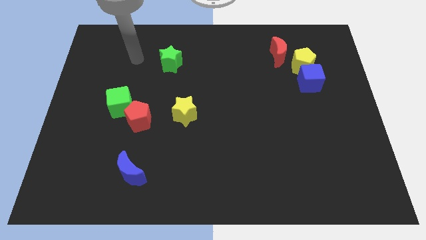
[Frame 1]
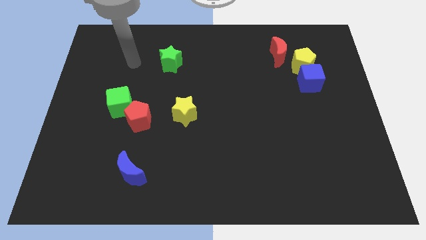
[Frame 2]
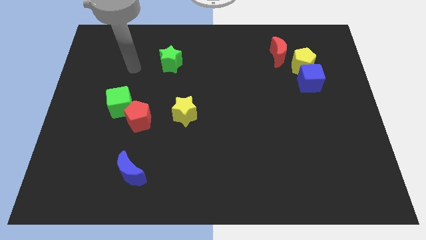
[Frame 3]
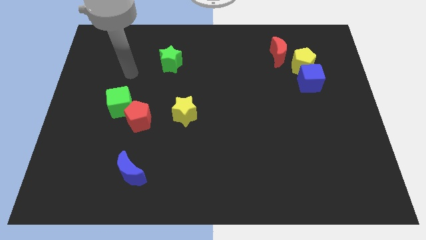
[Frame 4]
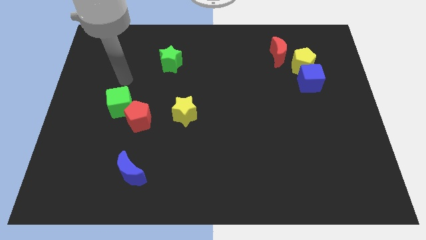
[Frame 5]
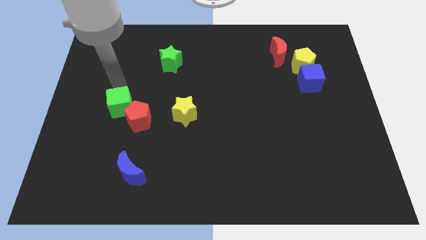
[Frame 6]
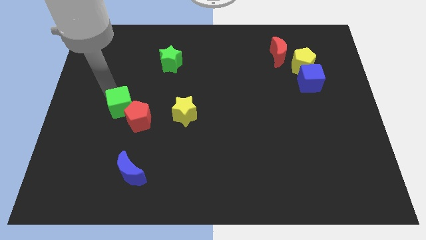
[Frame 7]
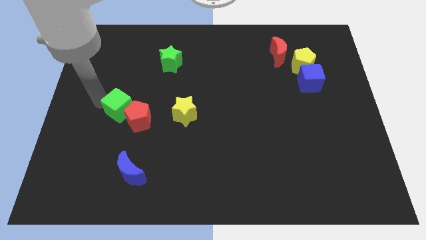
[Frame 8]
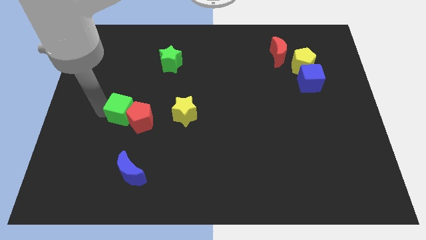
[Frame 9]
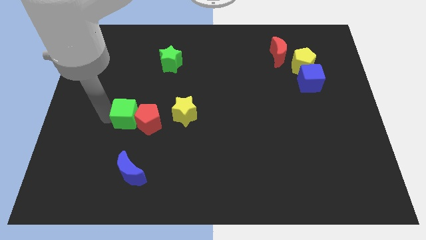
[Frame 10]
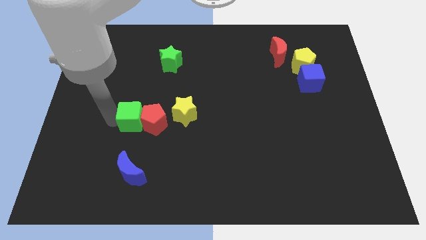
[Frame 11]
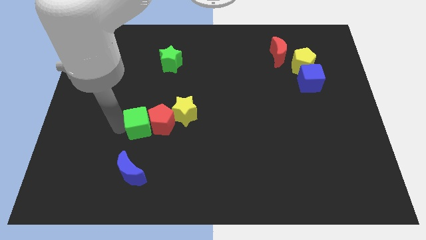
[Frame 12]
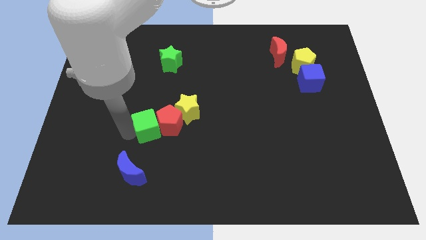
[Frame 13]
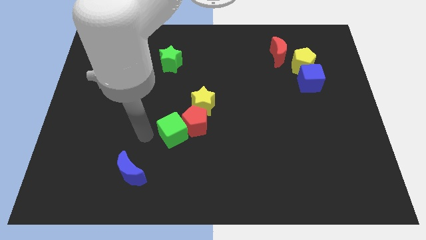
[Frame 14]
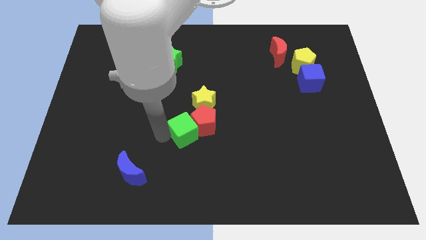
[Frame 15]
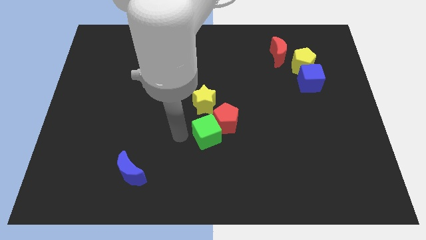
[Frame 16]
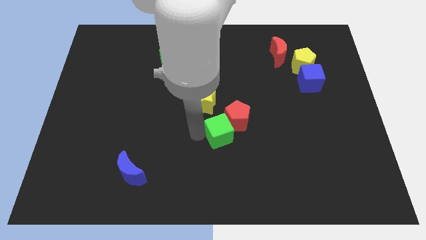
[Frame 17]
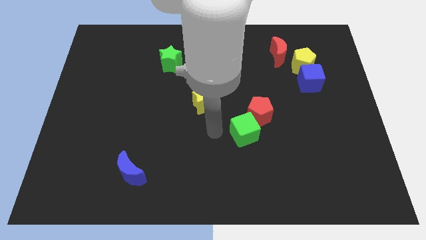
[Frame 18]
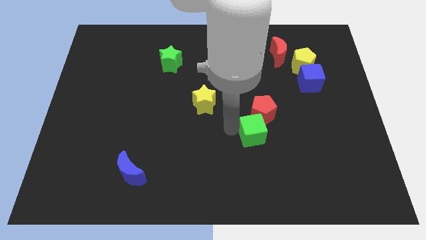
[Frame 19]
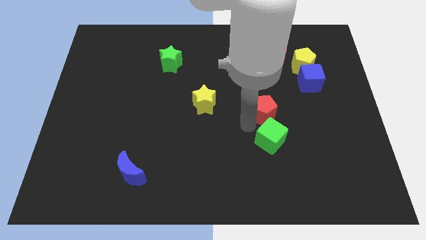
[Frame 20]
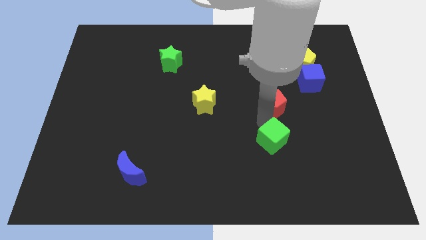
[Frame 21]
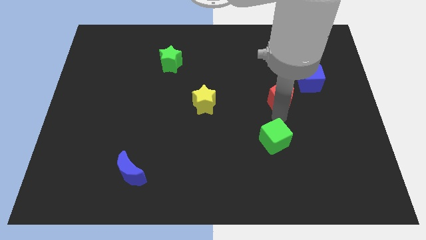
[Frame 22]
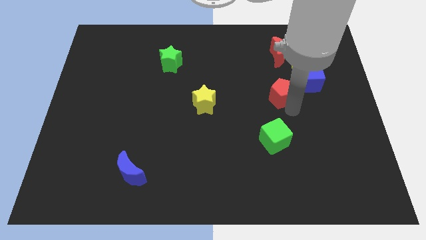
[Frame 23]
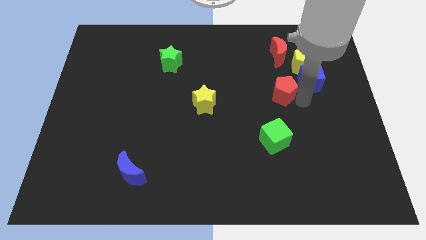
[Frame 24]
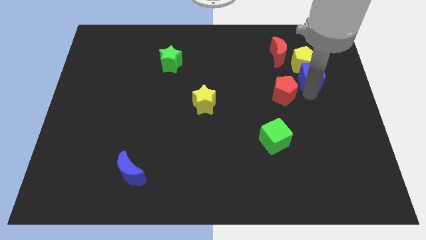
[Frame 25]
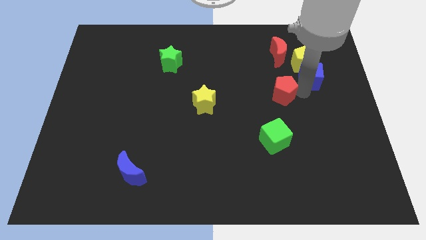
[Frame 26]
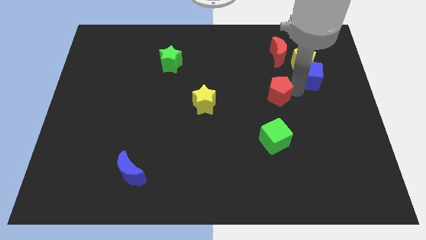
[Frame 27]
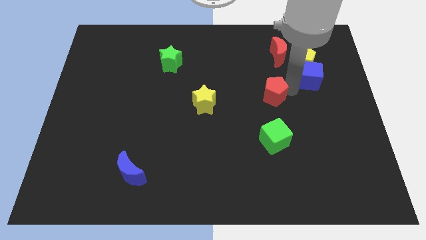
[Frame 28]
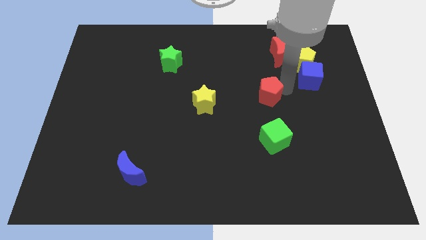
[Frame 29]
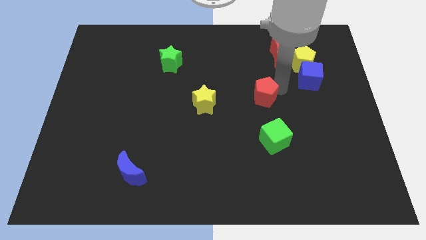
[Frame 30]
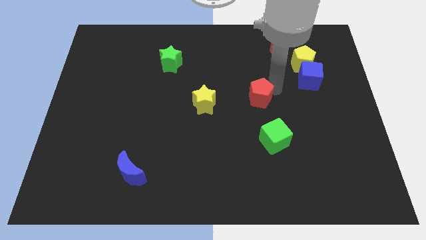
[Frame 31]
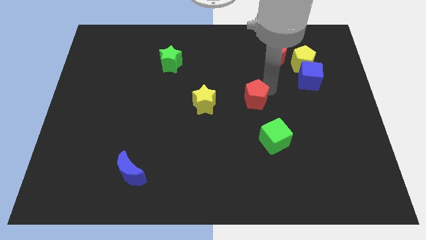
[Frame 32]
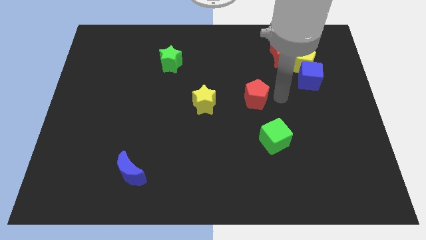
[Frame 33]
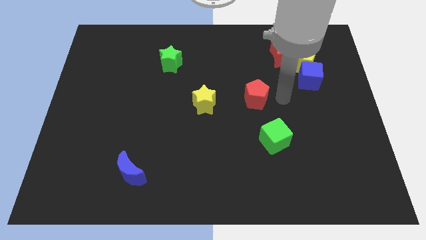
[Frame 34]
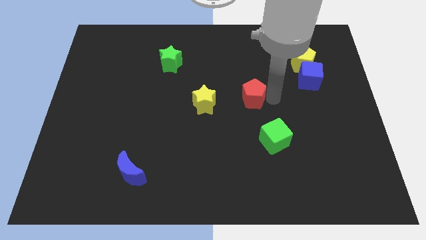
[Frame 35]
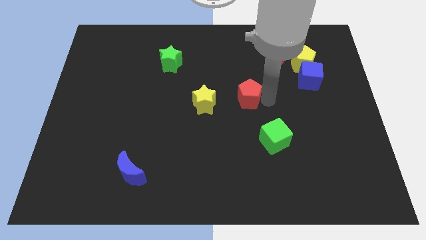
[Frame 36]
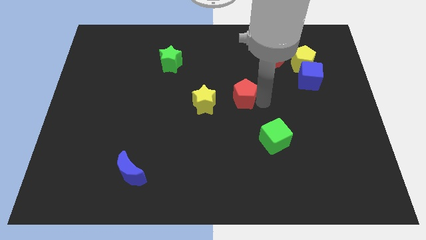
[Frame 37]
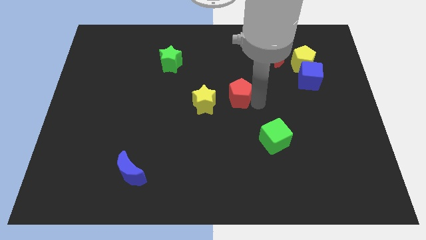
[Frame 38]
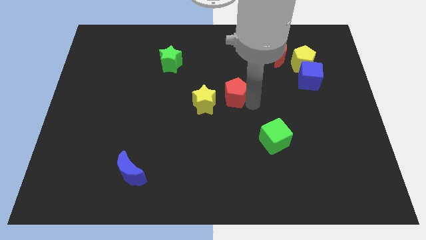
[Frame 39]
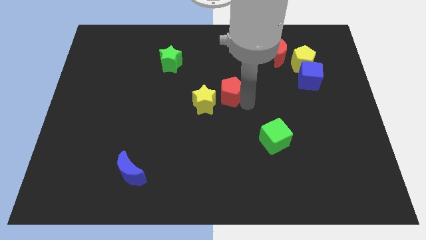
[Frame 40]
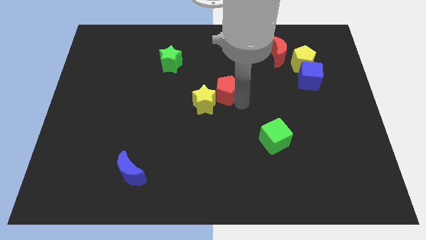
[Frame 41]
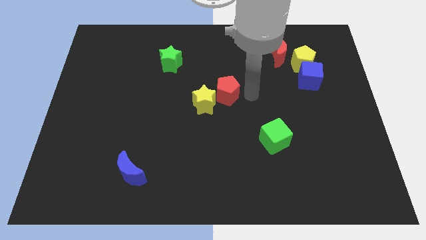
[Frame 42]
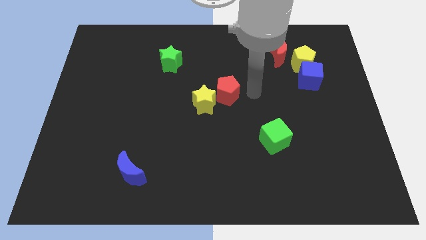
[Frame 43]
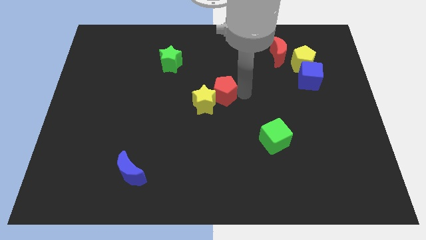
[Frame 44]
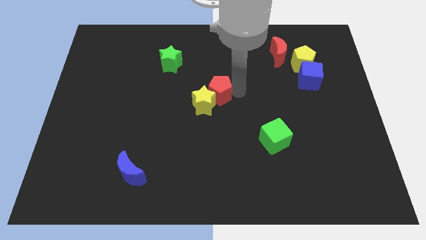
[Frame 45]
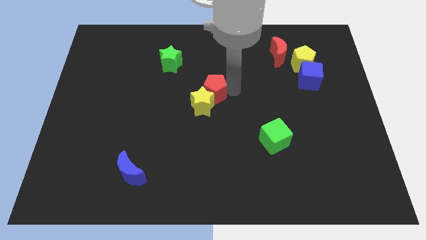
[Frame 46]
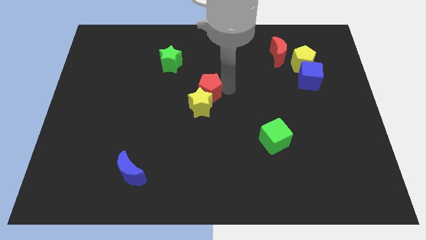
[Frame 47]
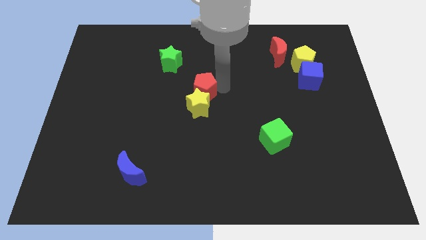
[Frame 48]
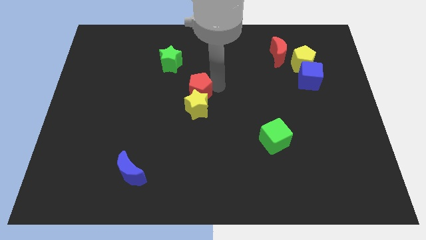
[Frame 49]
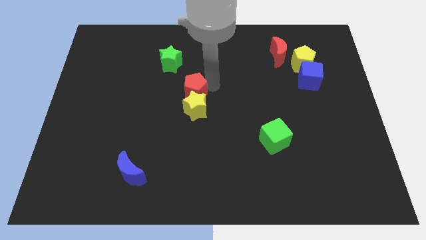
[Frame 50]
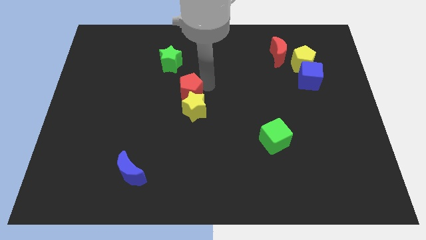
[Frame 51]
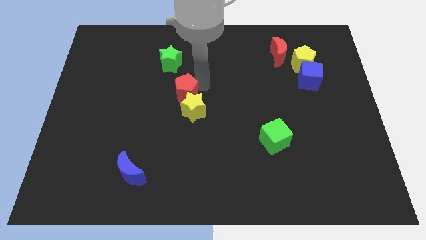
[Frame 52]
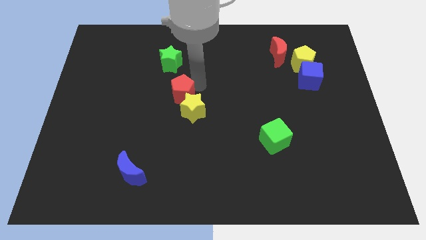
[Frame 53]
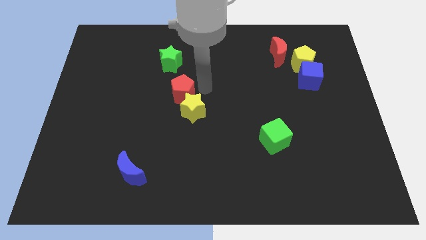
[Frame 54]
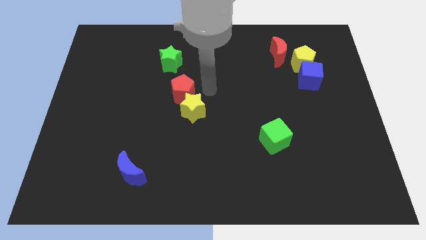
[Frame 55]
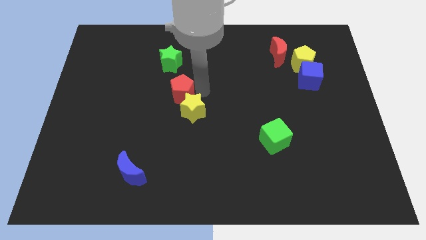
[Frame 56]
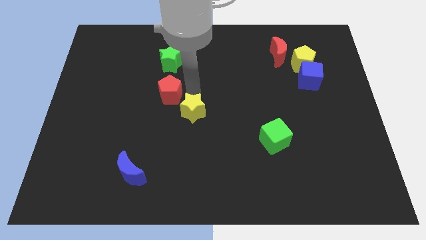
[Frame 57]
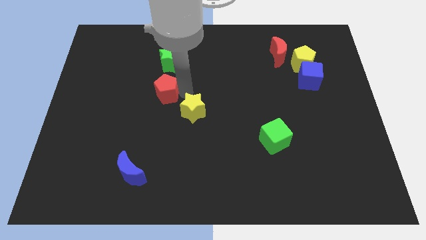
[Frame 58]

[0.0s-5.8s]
push the red pentagon upwards a little bit

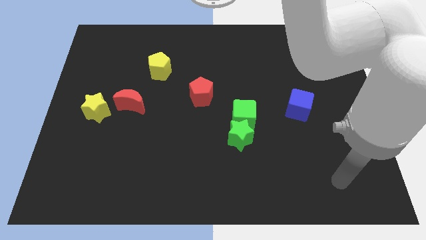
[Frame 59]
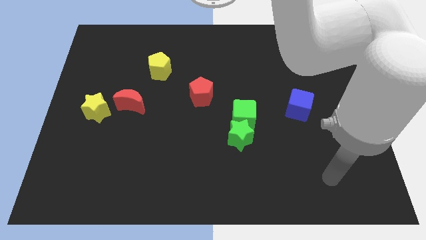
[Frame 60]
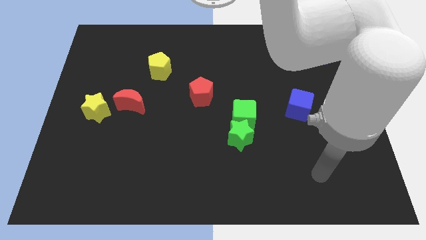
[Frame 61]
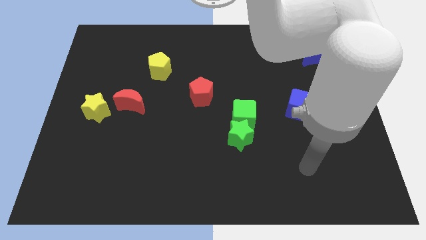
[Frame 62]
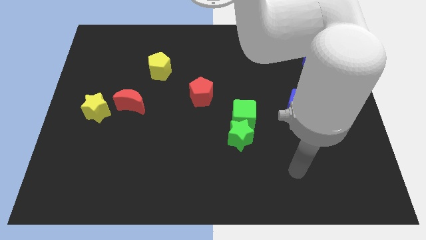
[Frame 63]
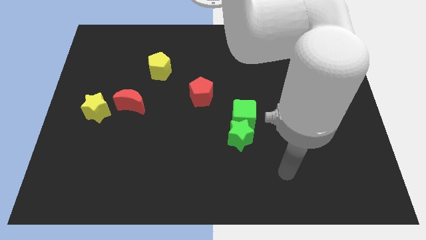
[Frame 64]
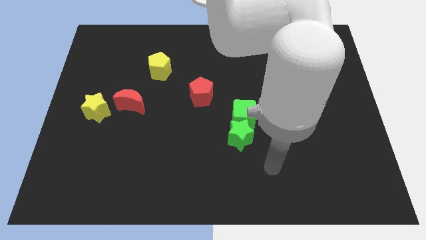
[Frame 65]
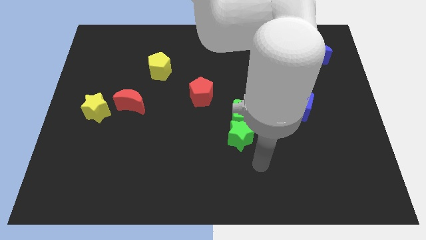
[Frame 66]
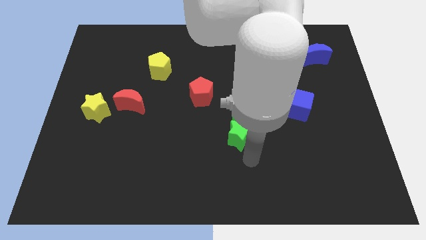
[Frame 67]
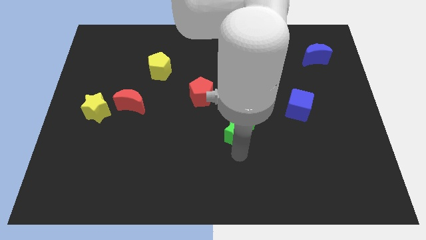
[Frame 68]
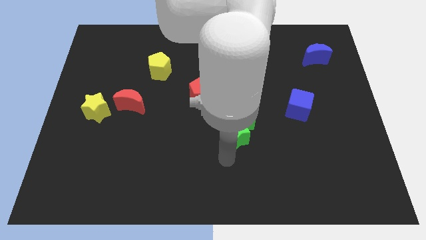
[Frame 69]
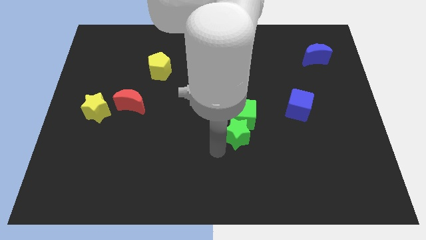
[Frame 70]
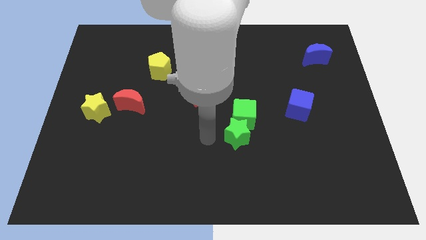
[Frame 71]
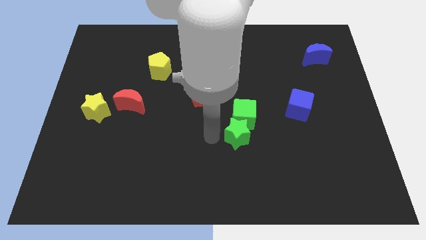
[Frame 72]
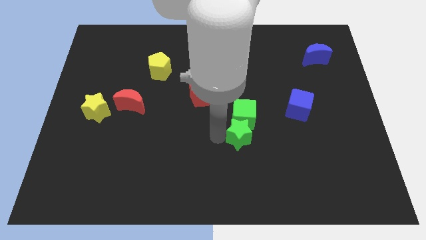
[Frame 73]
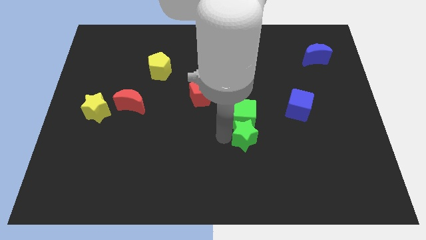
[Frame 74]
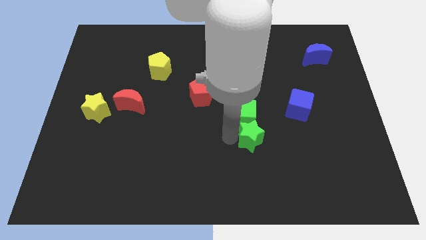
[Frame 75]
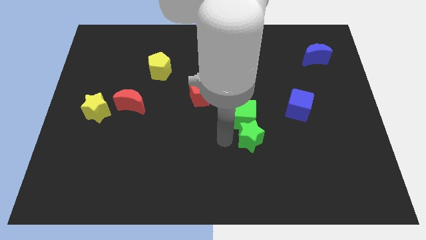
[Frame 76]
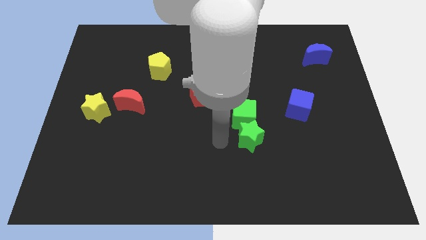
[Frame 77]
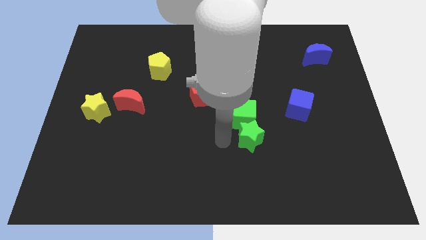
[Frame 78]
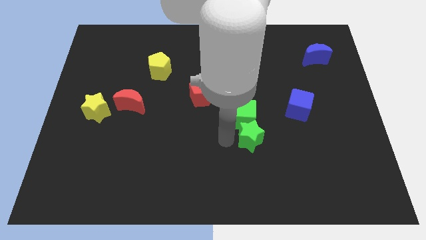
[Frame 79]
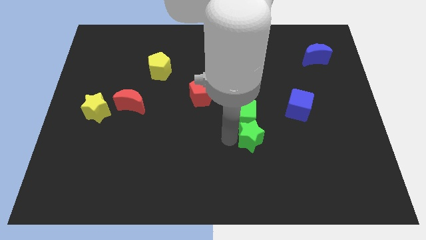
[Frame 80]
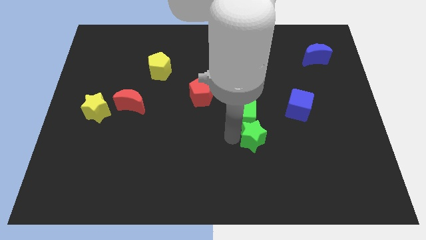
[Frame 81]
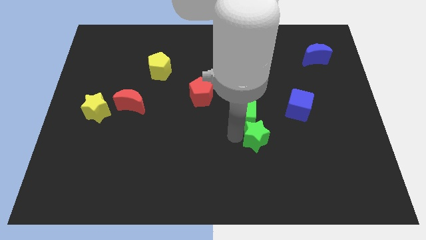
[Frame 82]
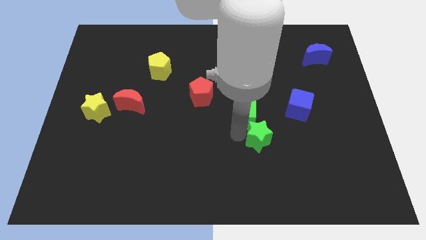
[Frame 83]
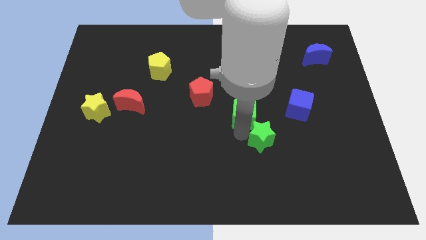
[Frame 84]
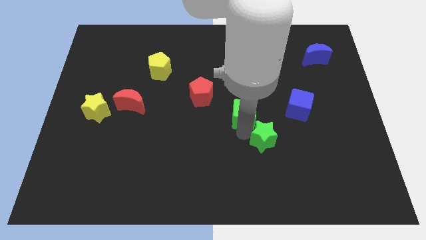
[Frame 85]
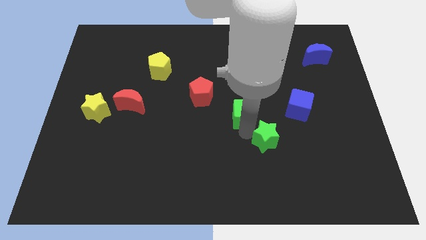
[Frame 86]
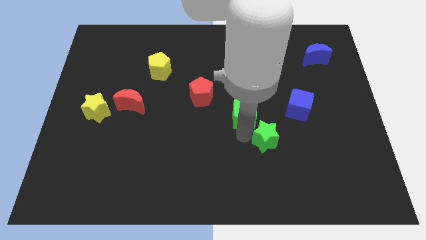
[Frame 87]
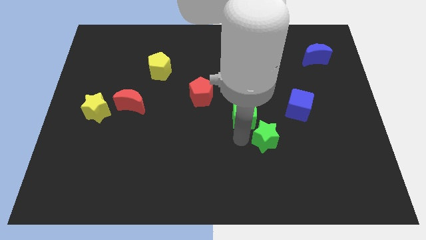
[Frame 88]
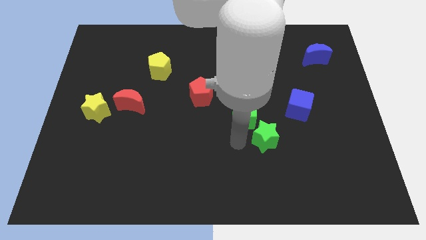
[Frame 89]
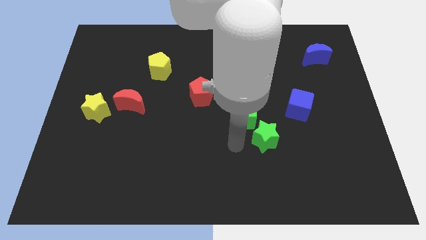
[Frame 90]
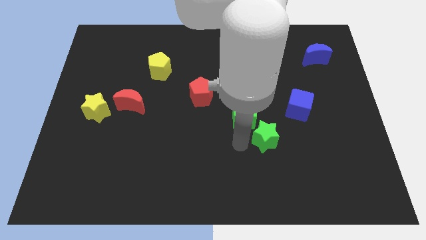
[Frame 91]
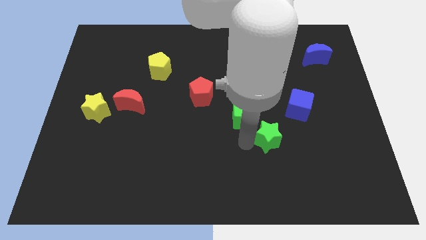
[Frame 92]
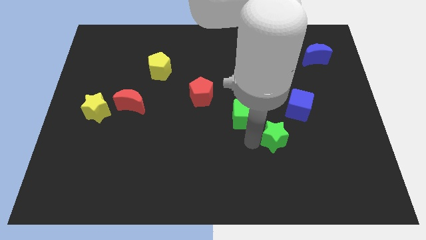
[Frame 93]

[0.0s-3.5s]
move the green star to the right somewhat
